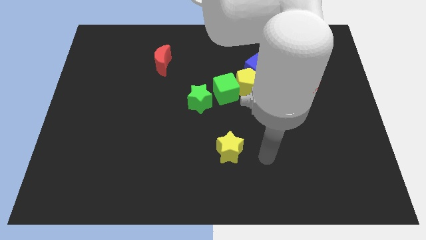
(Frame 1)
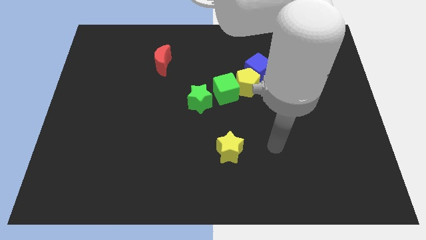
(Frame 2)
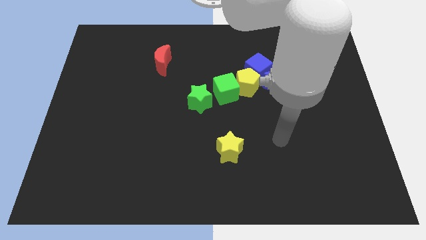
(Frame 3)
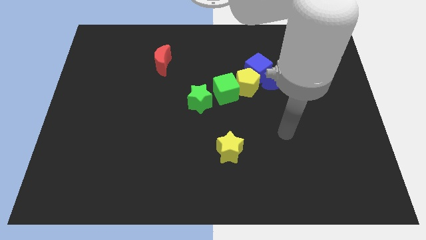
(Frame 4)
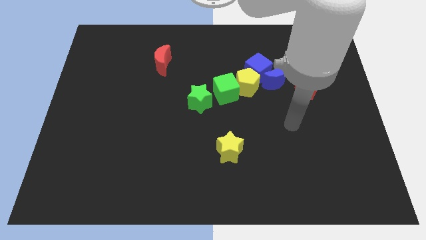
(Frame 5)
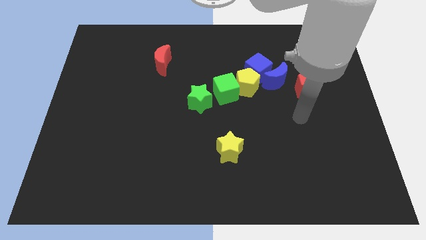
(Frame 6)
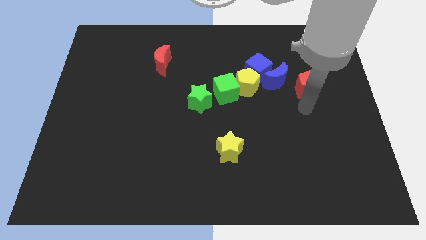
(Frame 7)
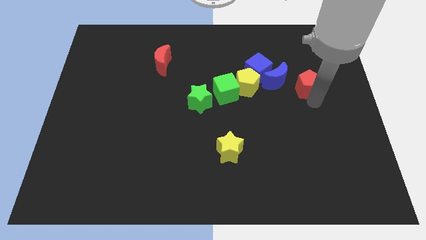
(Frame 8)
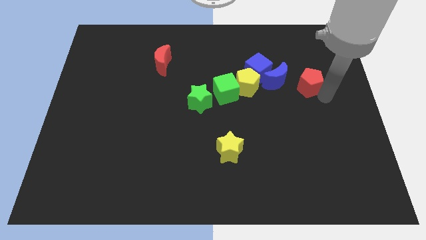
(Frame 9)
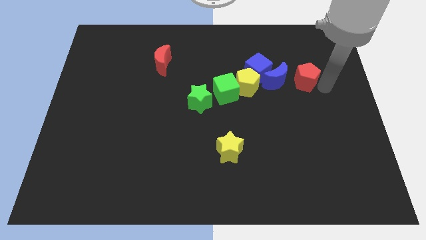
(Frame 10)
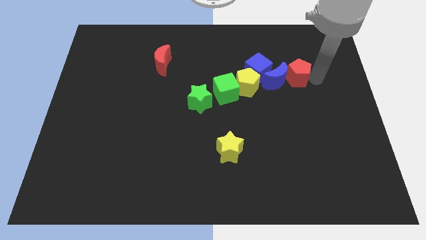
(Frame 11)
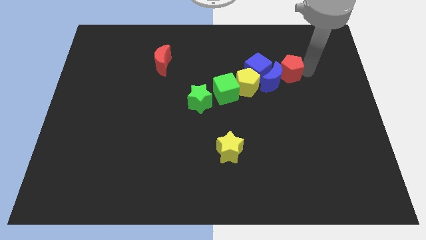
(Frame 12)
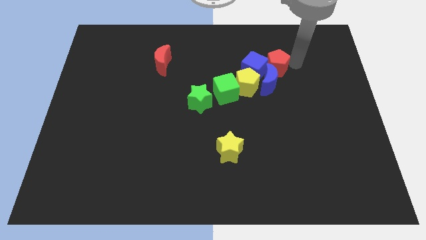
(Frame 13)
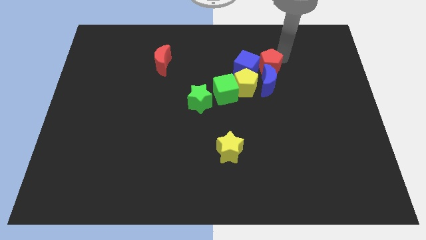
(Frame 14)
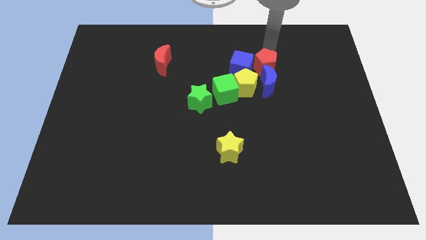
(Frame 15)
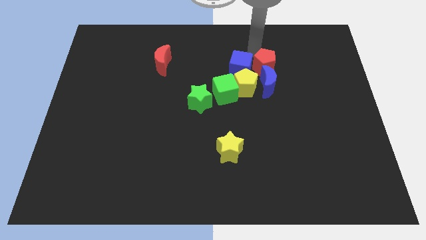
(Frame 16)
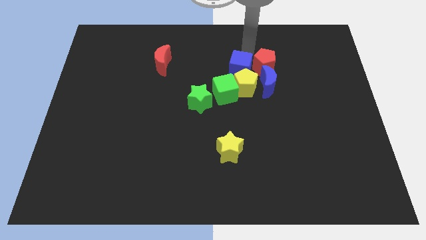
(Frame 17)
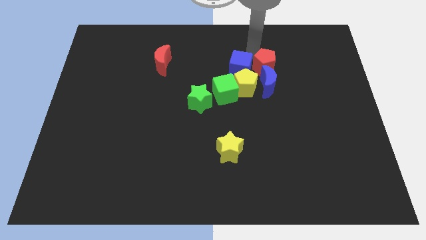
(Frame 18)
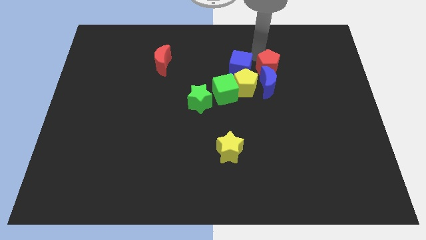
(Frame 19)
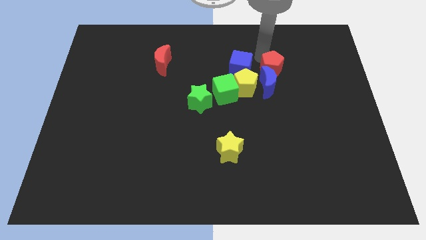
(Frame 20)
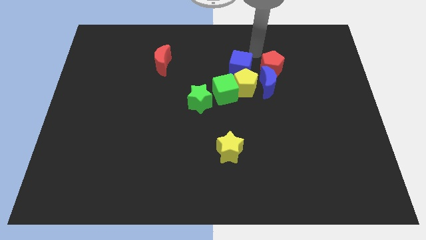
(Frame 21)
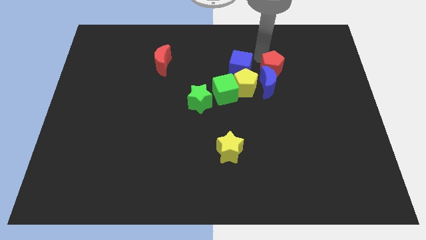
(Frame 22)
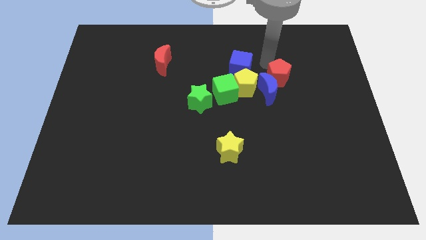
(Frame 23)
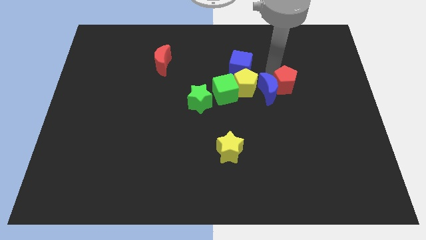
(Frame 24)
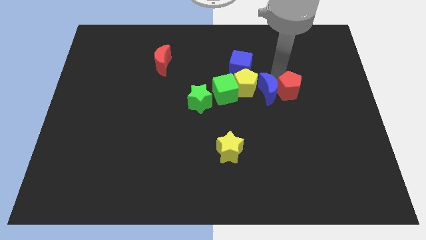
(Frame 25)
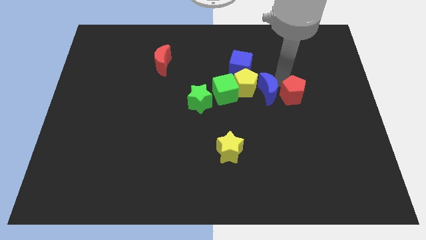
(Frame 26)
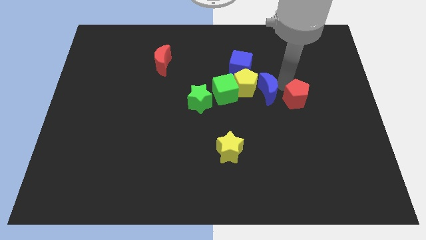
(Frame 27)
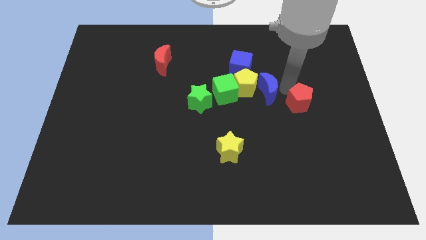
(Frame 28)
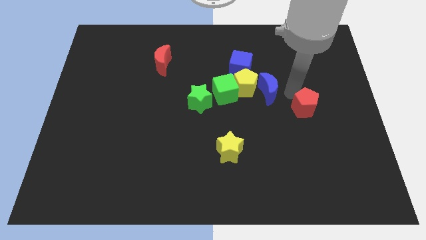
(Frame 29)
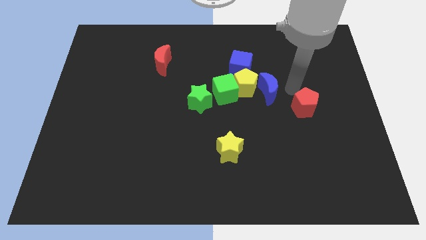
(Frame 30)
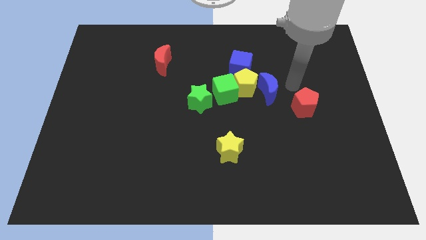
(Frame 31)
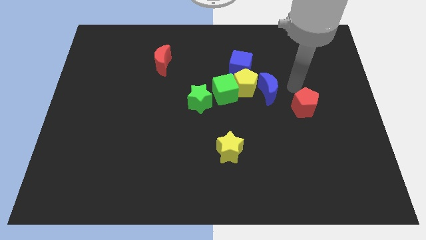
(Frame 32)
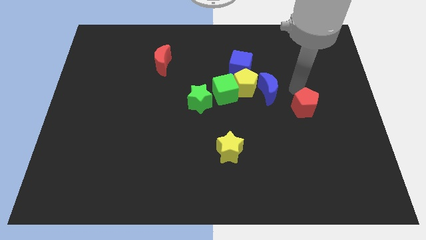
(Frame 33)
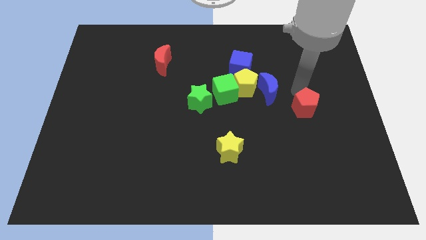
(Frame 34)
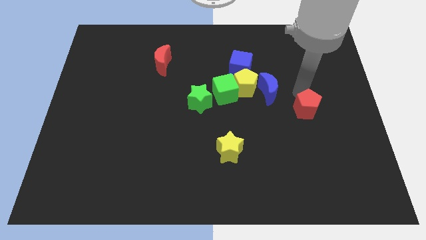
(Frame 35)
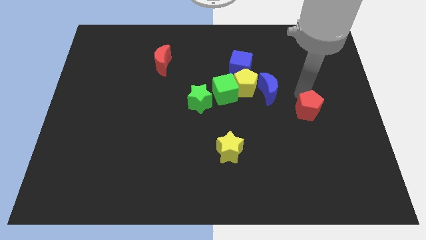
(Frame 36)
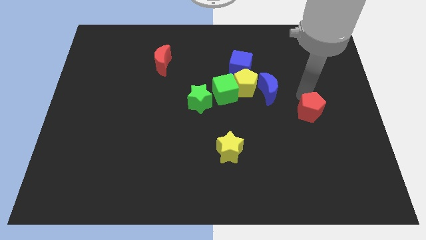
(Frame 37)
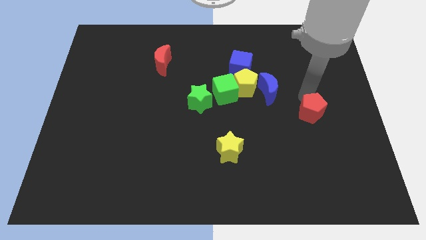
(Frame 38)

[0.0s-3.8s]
slightly slide the red pentagon down

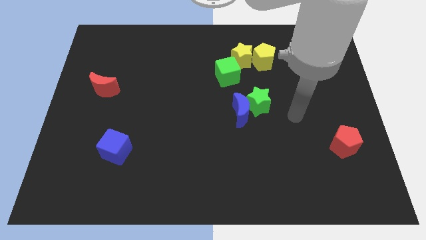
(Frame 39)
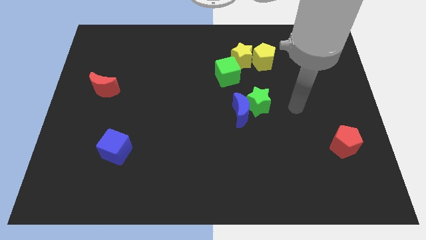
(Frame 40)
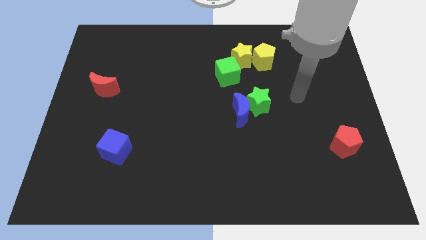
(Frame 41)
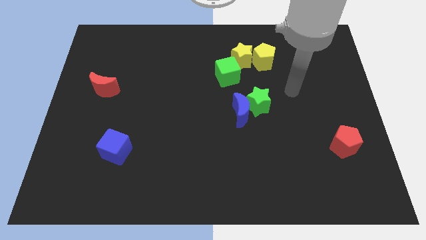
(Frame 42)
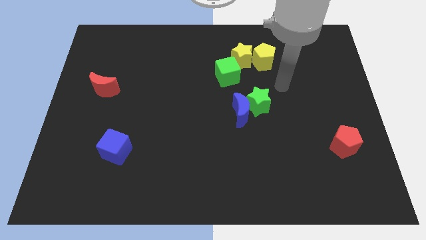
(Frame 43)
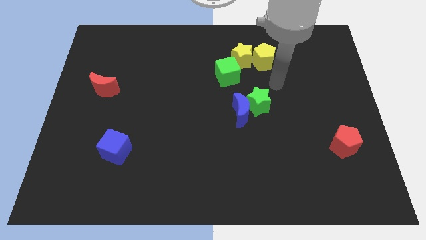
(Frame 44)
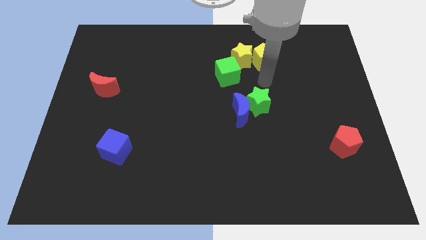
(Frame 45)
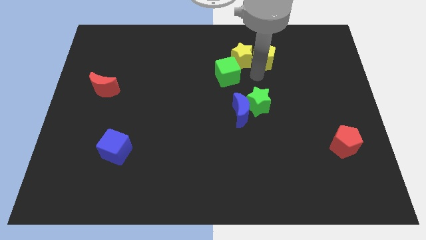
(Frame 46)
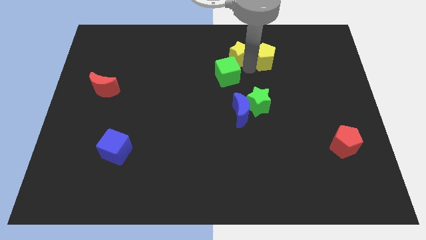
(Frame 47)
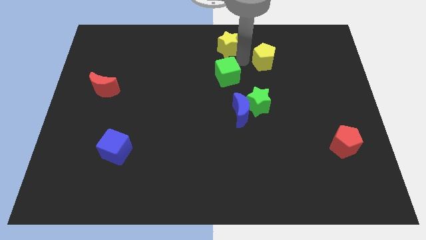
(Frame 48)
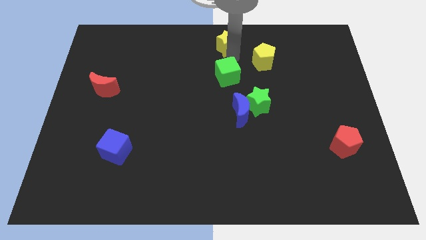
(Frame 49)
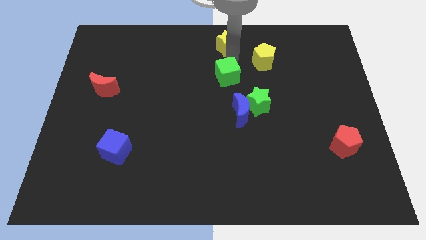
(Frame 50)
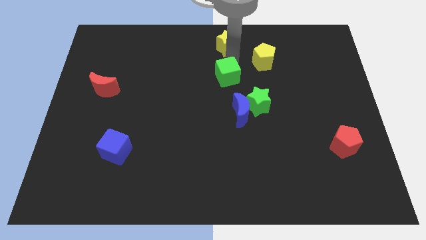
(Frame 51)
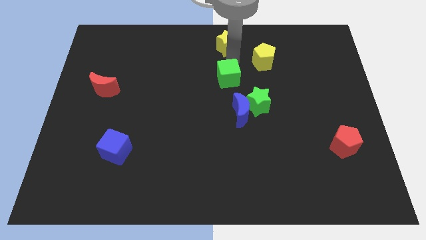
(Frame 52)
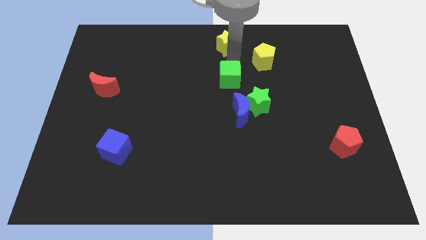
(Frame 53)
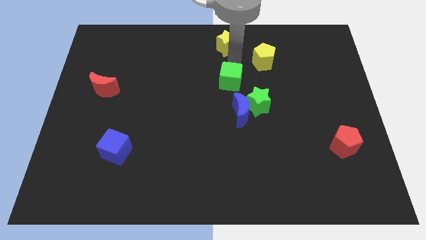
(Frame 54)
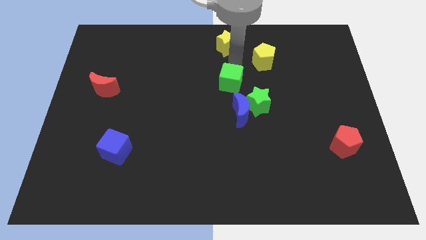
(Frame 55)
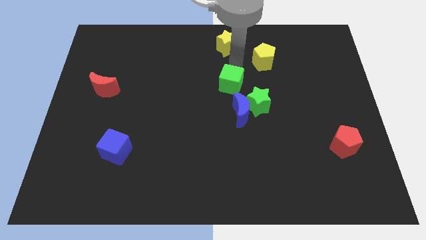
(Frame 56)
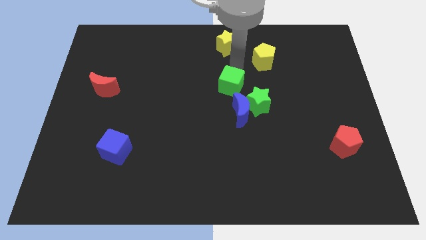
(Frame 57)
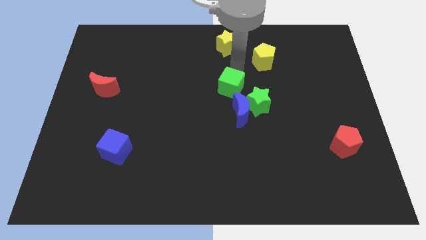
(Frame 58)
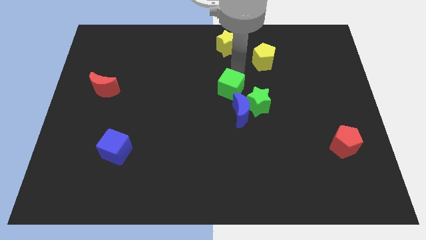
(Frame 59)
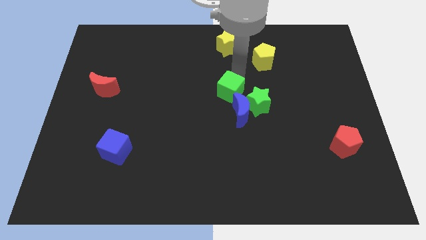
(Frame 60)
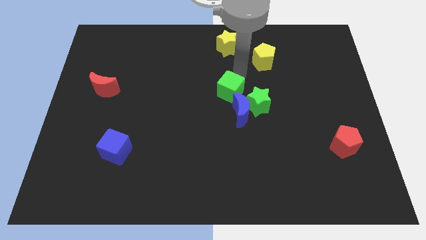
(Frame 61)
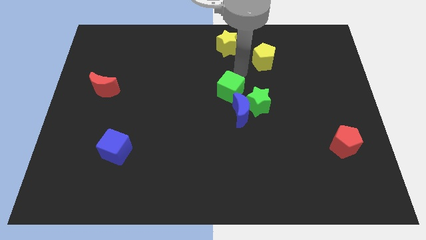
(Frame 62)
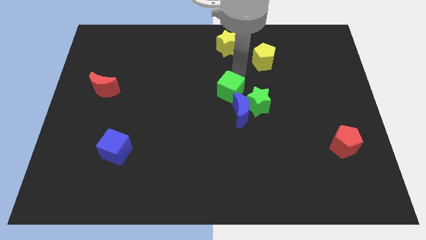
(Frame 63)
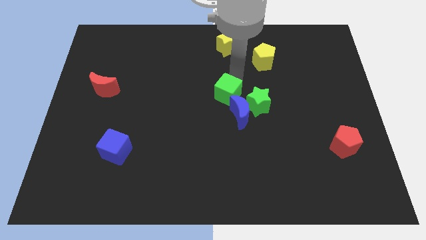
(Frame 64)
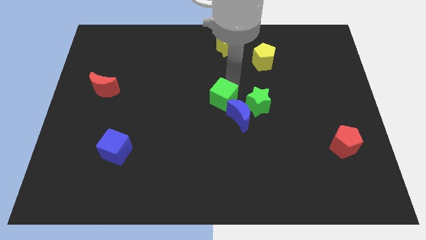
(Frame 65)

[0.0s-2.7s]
push the green cube down a little bit

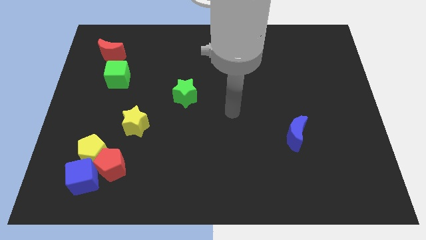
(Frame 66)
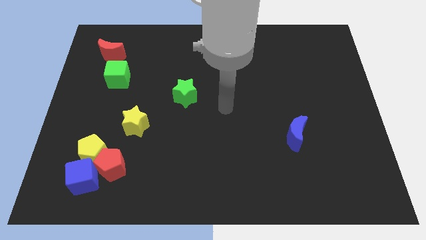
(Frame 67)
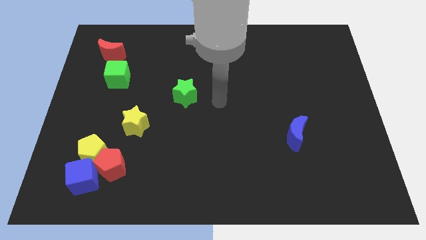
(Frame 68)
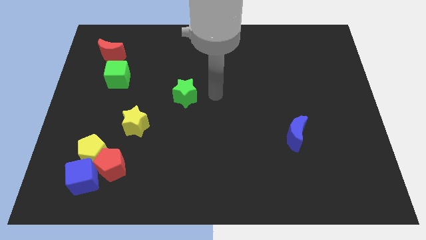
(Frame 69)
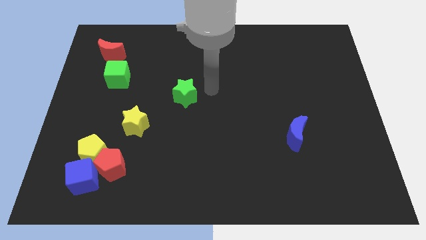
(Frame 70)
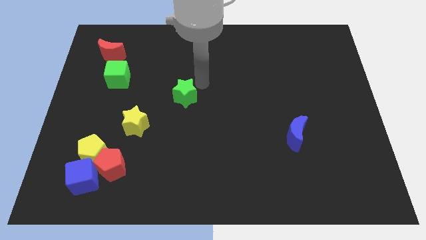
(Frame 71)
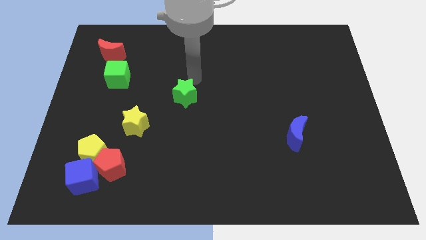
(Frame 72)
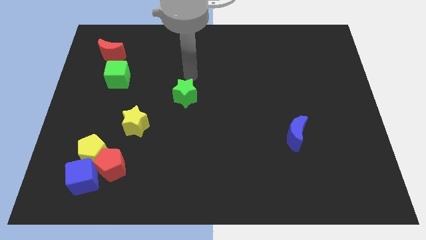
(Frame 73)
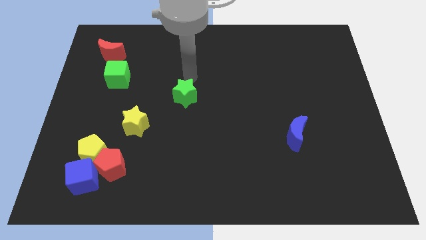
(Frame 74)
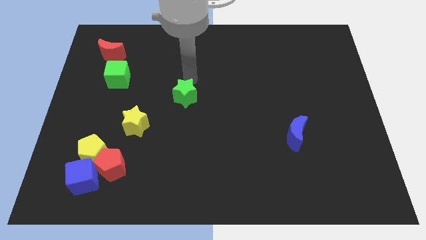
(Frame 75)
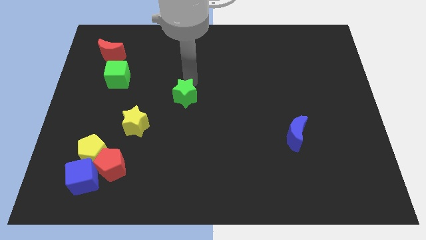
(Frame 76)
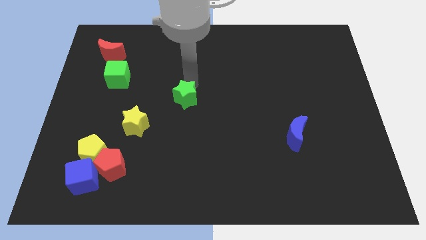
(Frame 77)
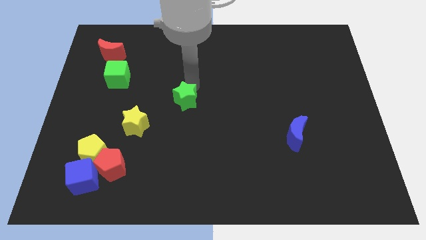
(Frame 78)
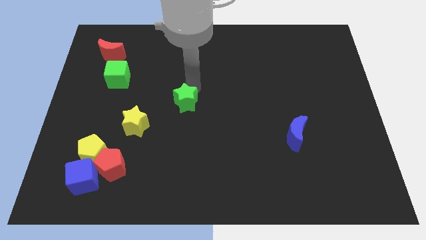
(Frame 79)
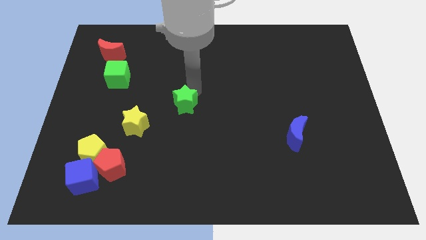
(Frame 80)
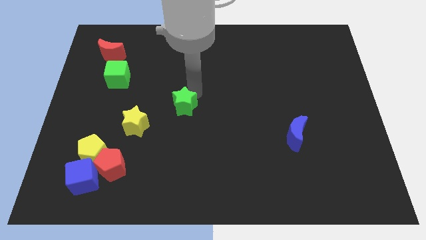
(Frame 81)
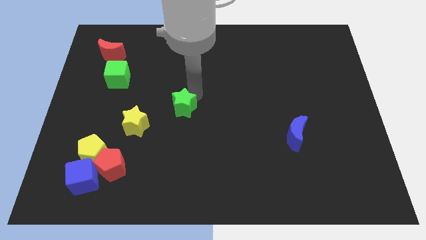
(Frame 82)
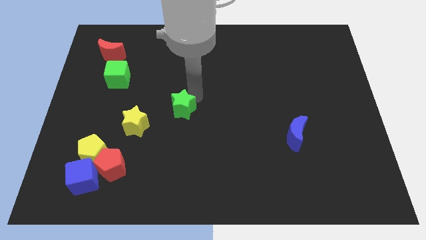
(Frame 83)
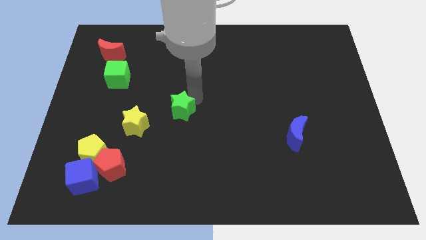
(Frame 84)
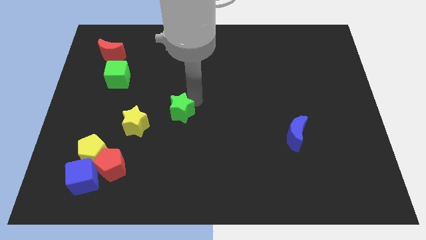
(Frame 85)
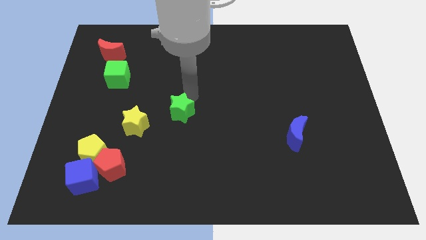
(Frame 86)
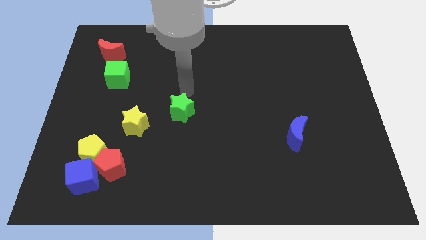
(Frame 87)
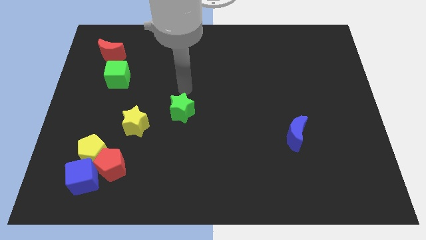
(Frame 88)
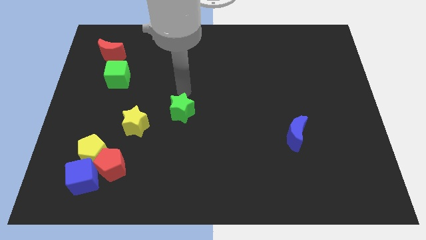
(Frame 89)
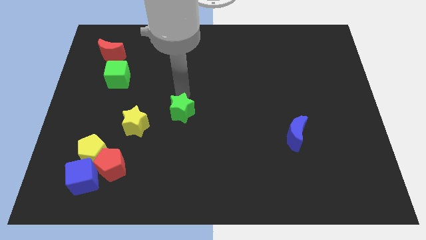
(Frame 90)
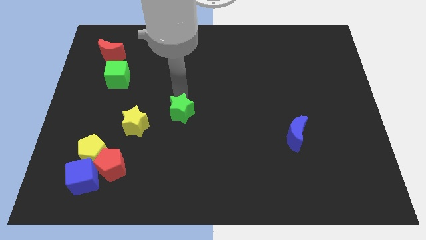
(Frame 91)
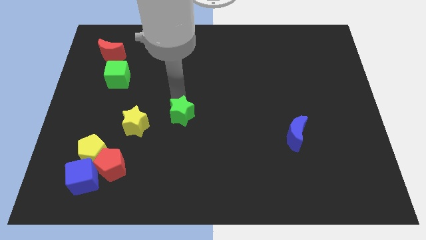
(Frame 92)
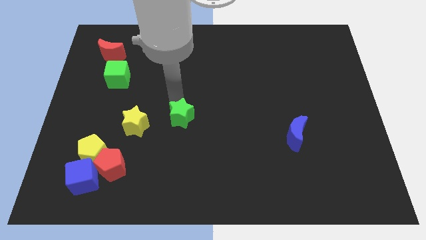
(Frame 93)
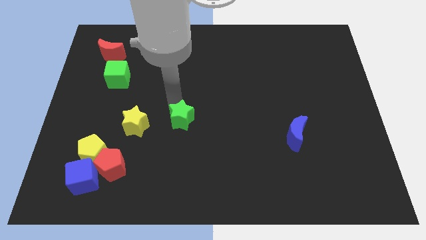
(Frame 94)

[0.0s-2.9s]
slightly move the green star downwards
